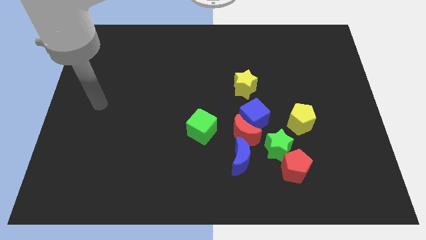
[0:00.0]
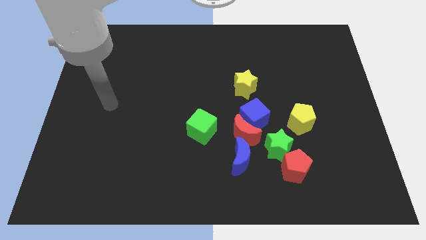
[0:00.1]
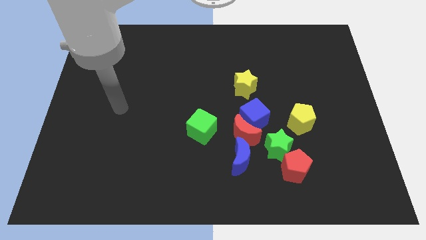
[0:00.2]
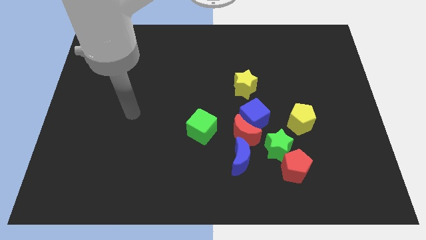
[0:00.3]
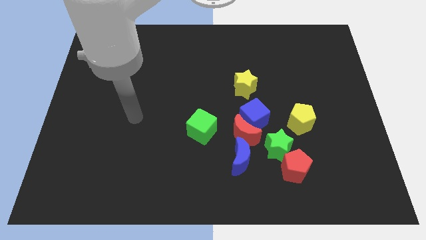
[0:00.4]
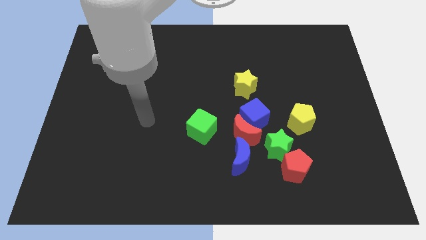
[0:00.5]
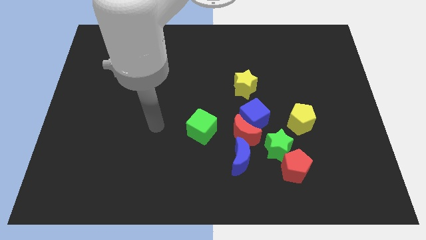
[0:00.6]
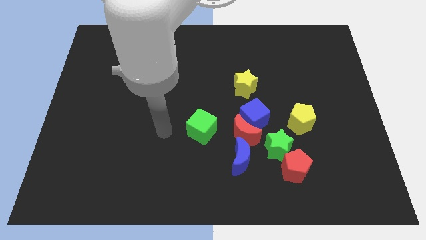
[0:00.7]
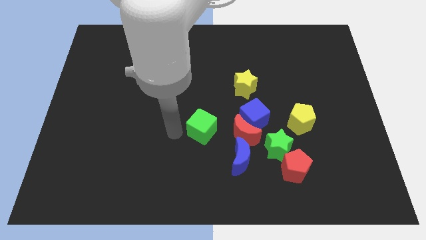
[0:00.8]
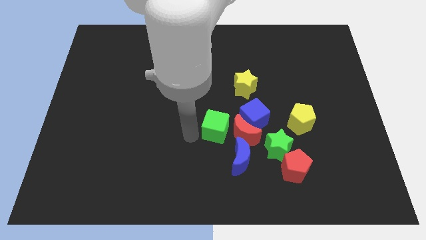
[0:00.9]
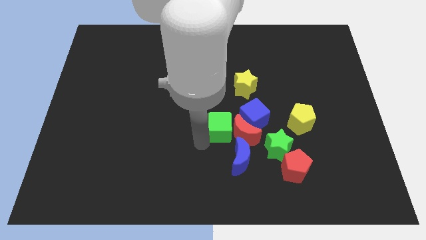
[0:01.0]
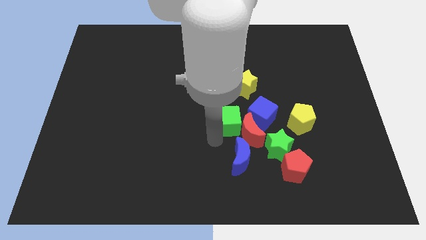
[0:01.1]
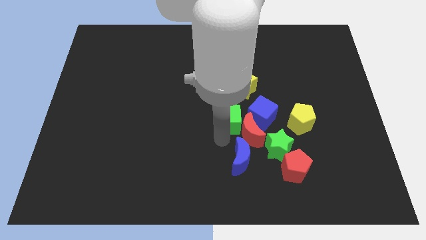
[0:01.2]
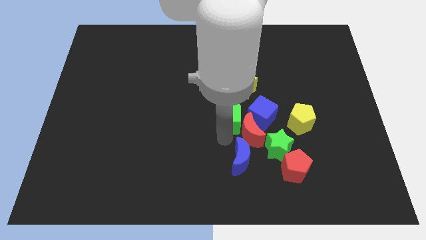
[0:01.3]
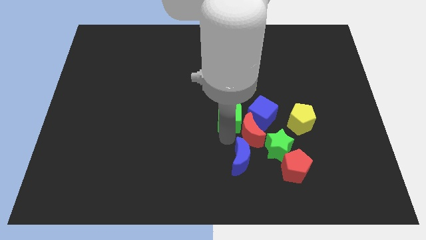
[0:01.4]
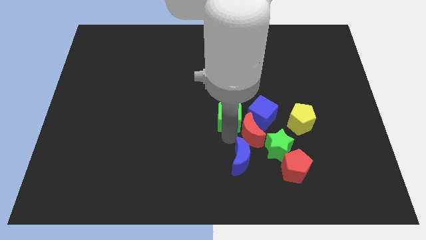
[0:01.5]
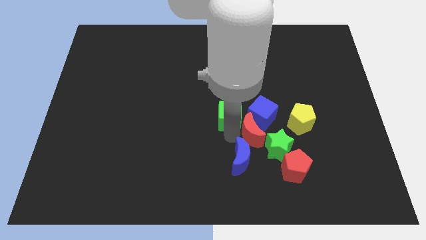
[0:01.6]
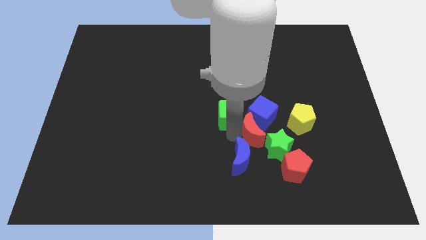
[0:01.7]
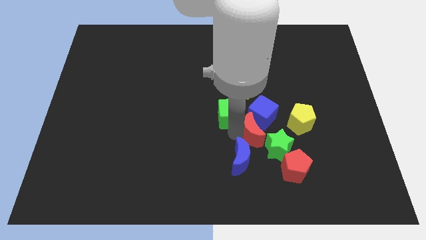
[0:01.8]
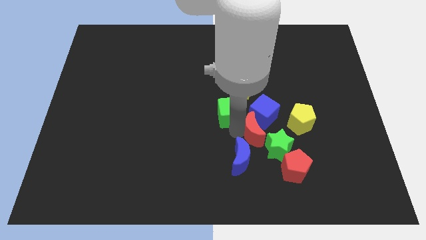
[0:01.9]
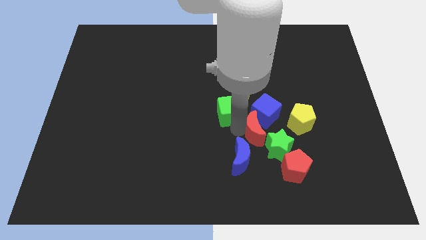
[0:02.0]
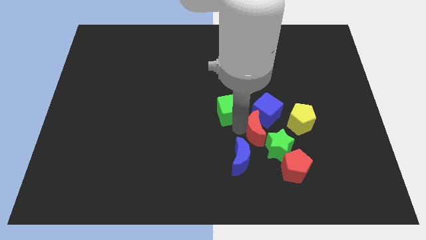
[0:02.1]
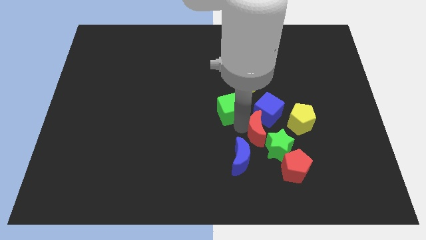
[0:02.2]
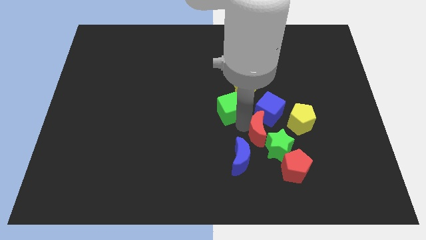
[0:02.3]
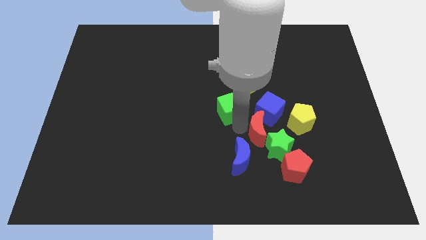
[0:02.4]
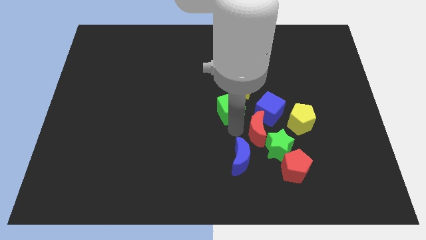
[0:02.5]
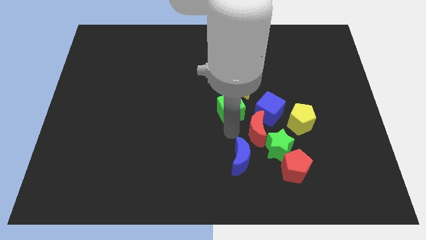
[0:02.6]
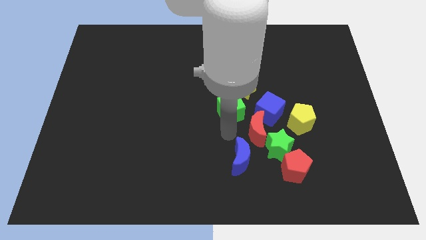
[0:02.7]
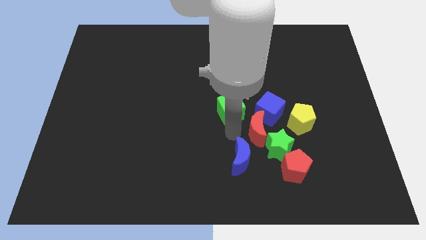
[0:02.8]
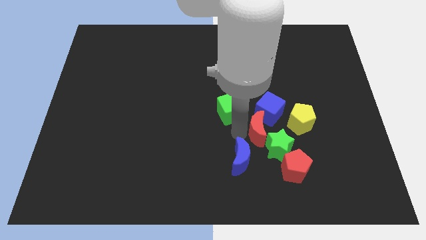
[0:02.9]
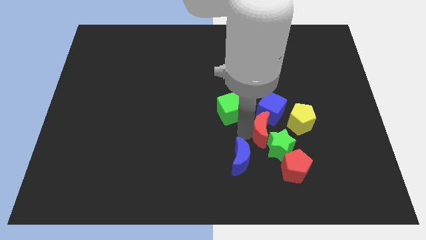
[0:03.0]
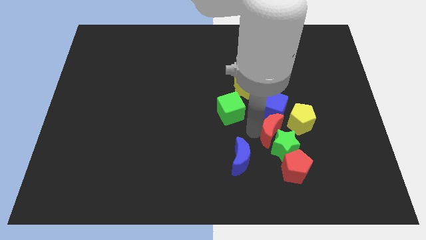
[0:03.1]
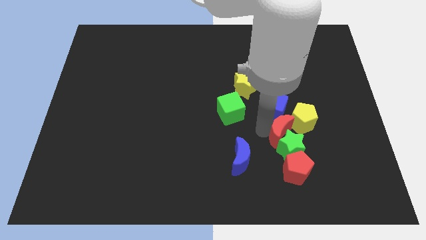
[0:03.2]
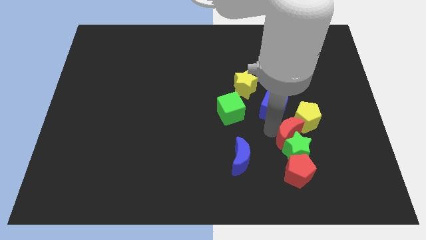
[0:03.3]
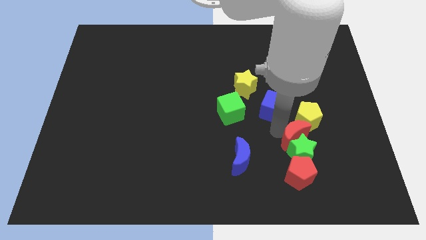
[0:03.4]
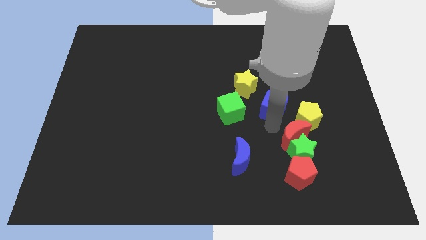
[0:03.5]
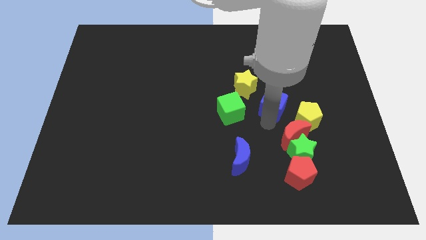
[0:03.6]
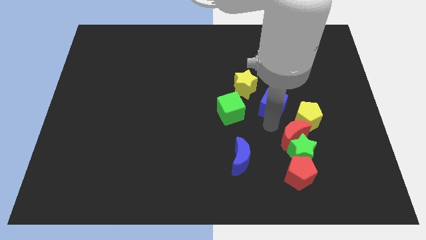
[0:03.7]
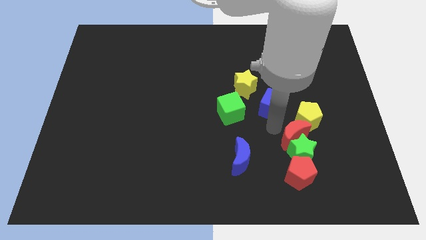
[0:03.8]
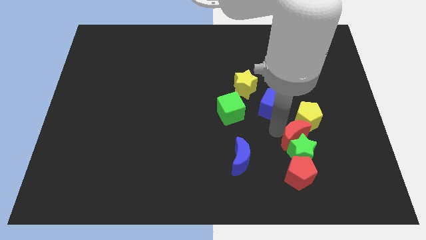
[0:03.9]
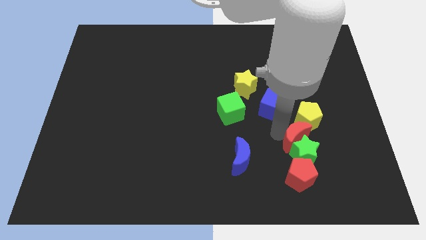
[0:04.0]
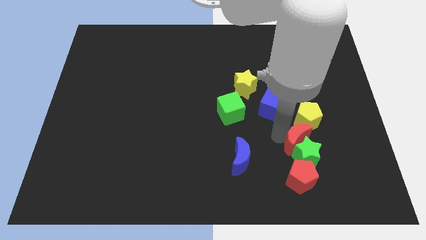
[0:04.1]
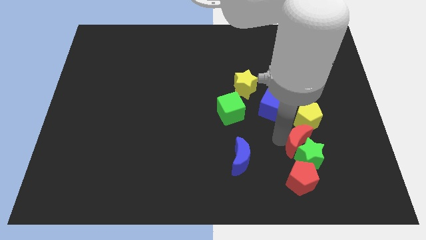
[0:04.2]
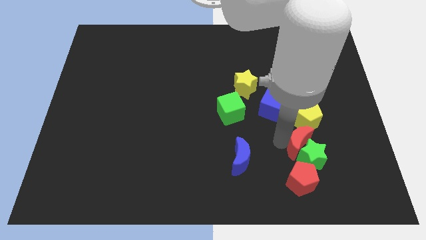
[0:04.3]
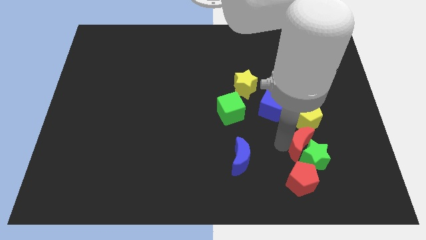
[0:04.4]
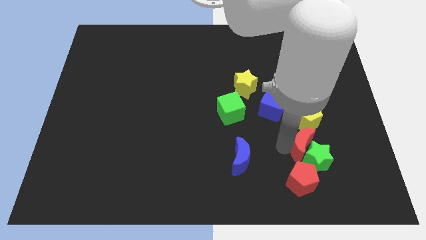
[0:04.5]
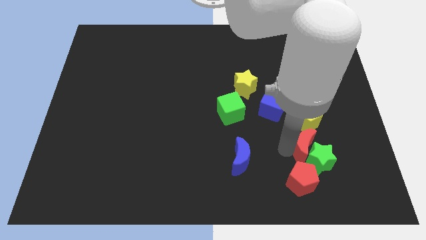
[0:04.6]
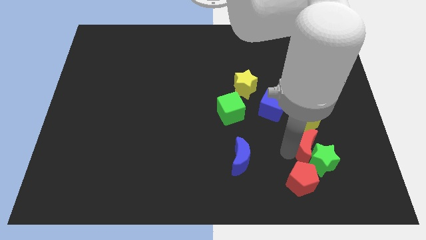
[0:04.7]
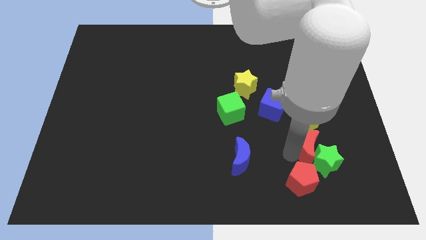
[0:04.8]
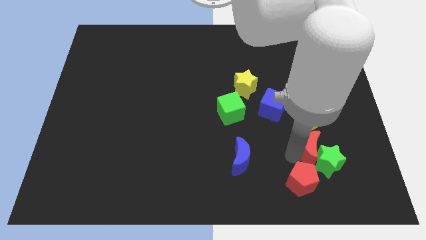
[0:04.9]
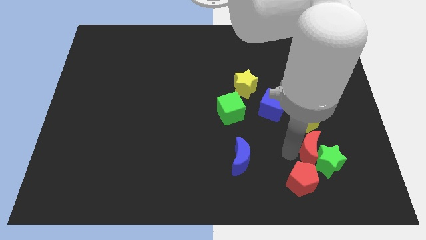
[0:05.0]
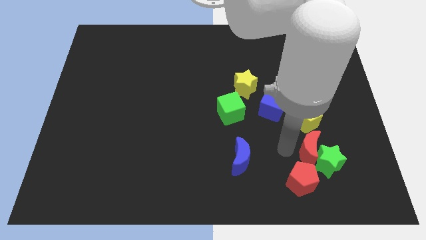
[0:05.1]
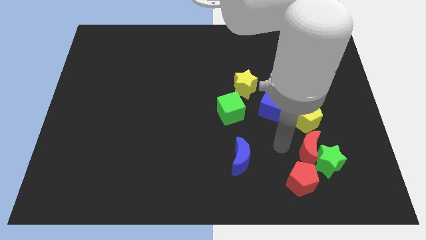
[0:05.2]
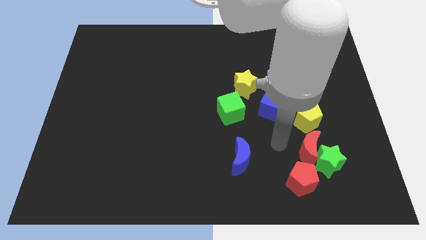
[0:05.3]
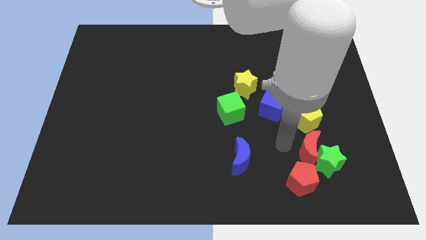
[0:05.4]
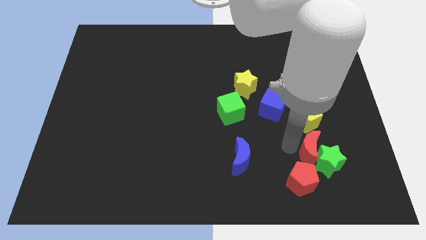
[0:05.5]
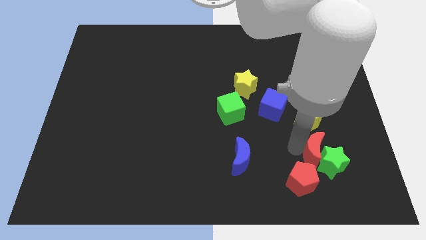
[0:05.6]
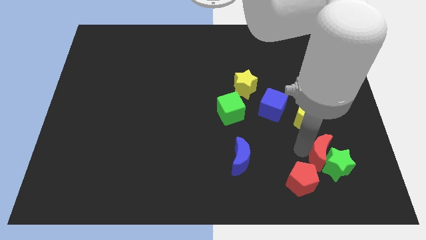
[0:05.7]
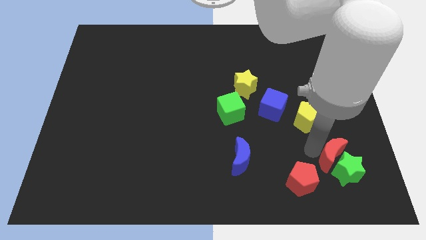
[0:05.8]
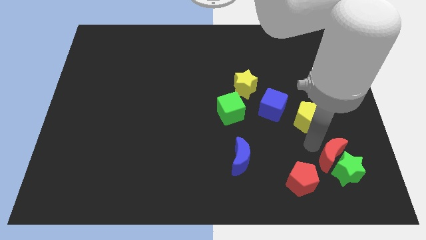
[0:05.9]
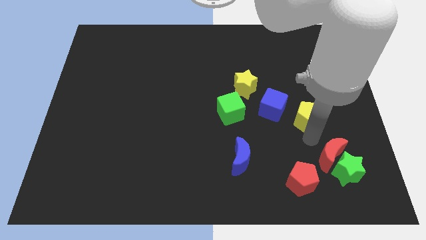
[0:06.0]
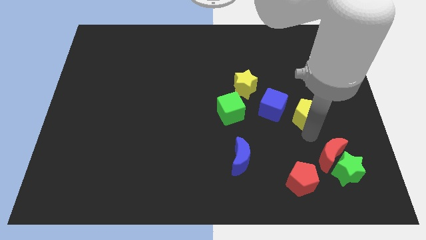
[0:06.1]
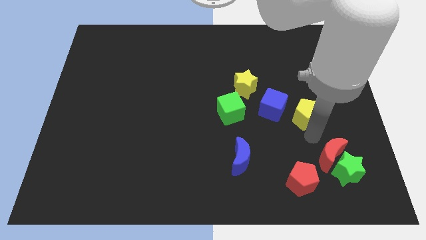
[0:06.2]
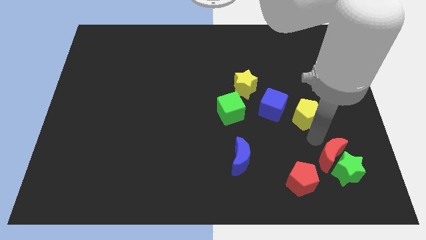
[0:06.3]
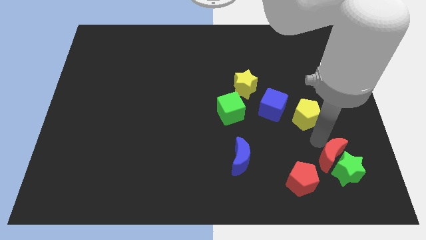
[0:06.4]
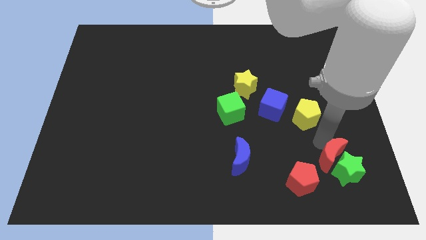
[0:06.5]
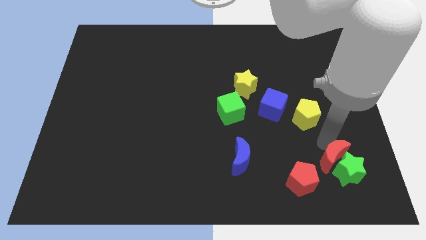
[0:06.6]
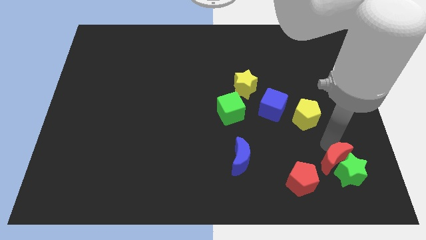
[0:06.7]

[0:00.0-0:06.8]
move the red moon to the right of the red pentagon
